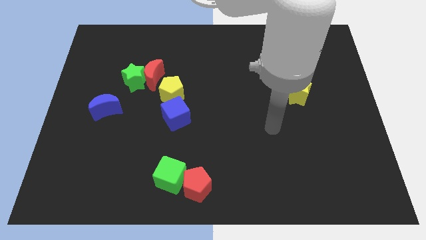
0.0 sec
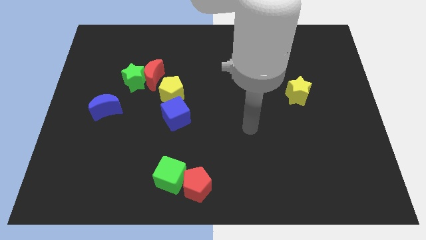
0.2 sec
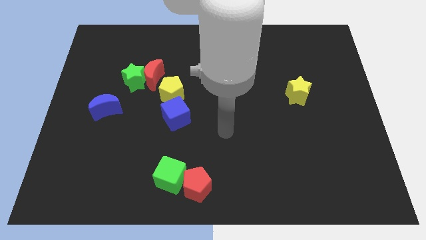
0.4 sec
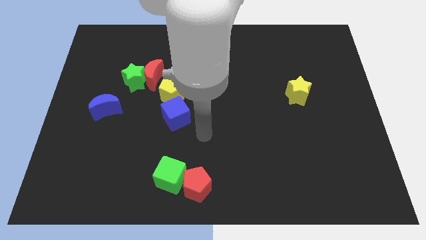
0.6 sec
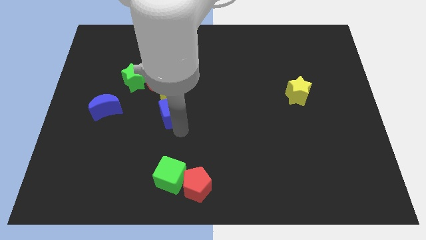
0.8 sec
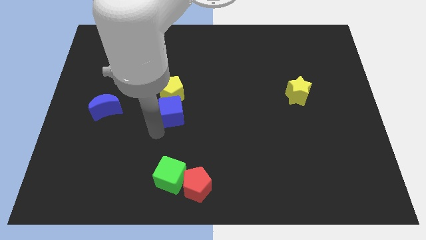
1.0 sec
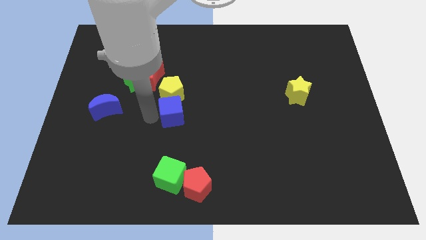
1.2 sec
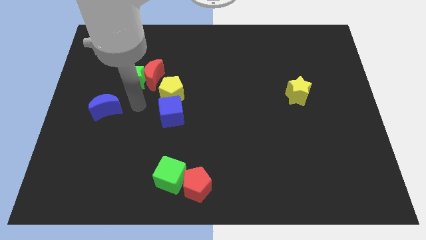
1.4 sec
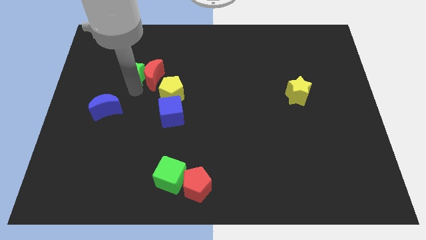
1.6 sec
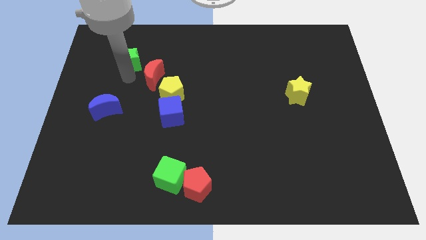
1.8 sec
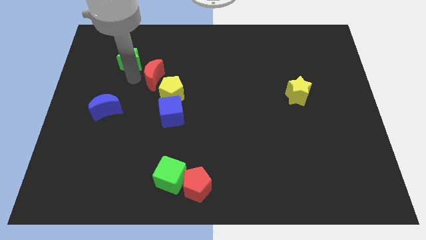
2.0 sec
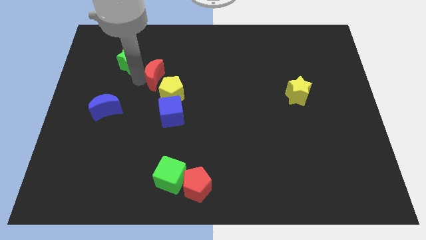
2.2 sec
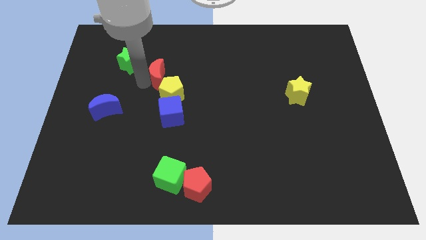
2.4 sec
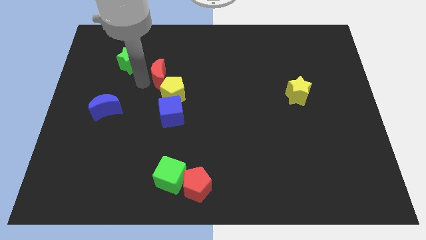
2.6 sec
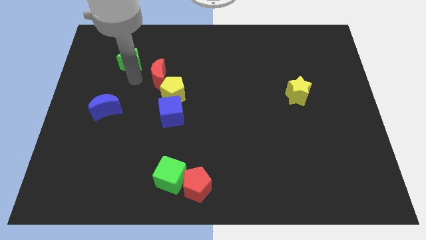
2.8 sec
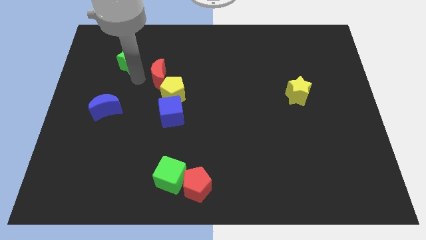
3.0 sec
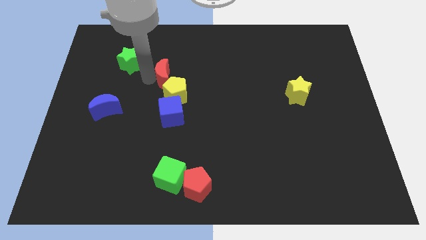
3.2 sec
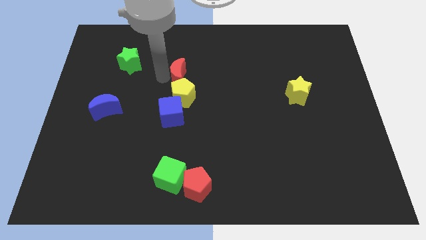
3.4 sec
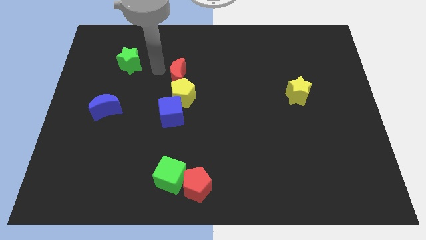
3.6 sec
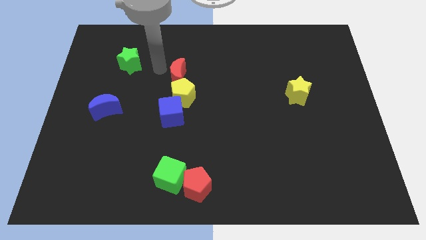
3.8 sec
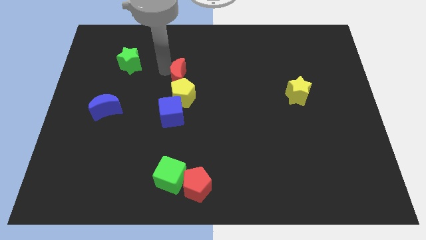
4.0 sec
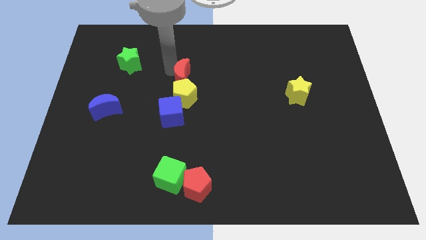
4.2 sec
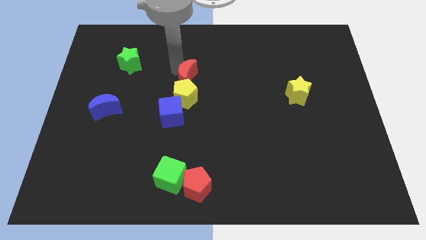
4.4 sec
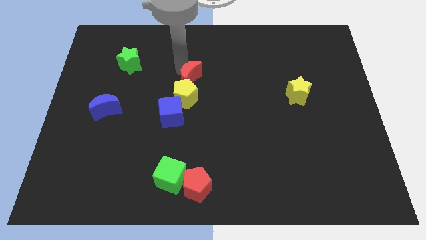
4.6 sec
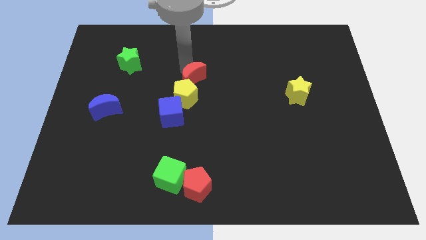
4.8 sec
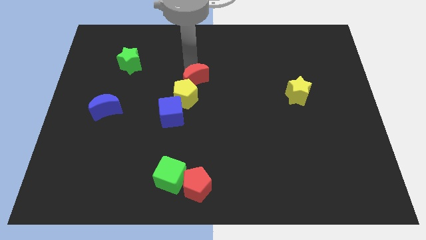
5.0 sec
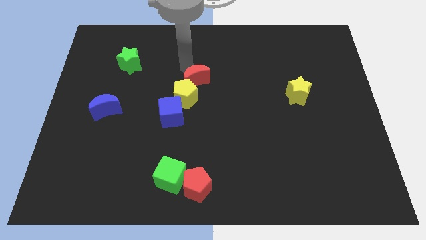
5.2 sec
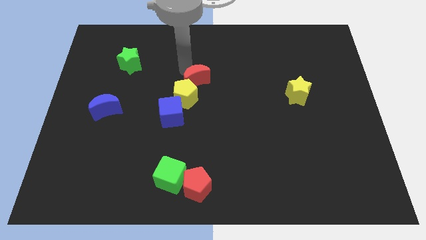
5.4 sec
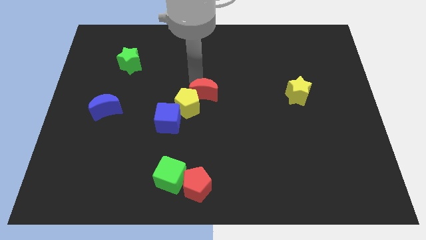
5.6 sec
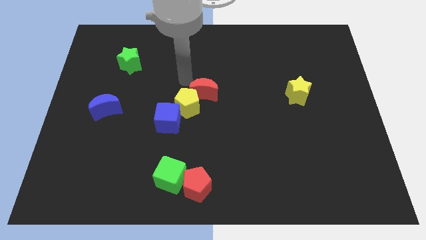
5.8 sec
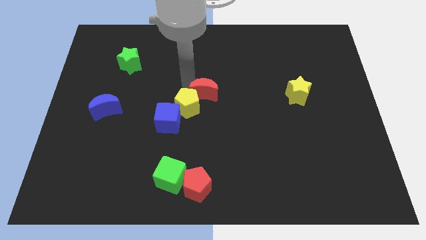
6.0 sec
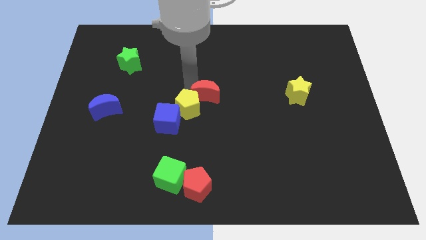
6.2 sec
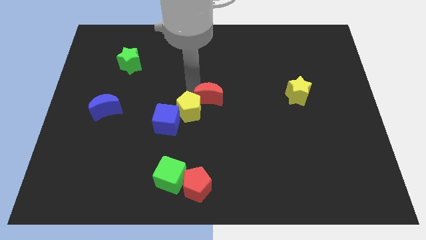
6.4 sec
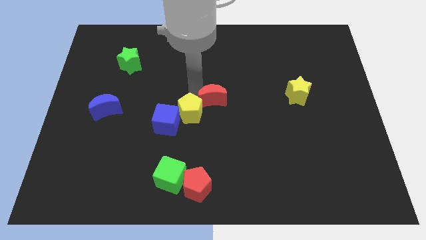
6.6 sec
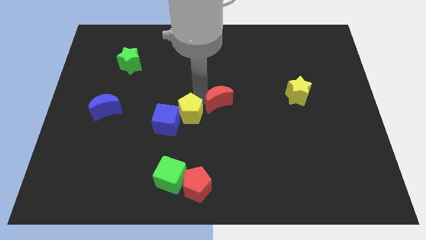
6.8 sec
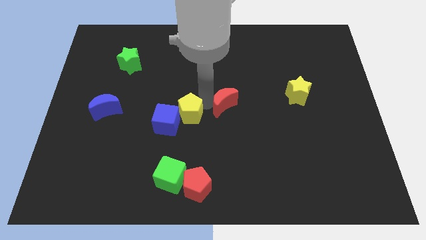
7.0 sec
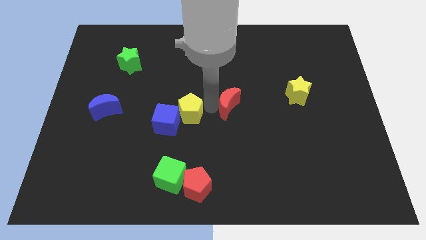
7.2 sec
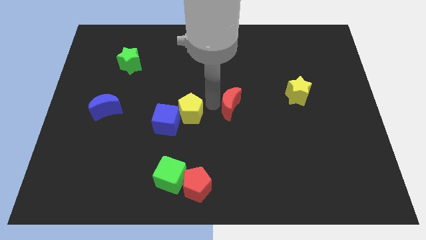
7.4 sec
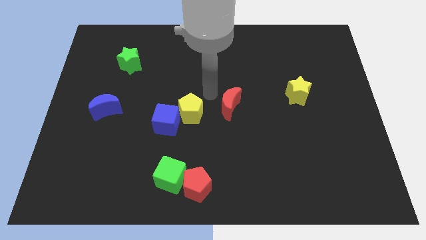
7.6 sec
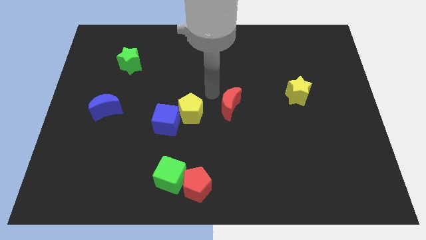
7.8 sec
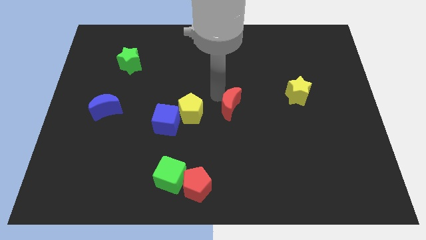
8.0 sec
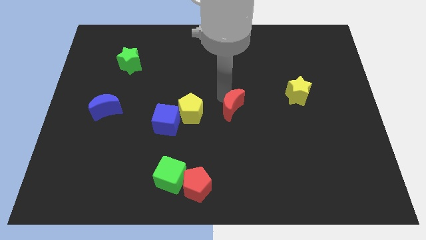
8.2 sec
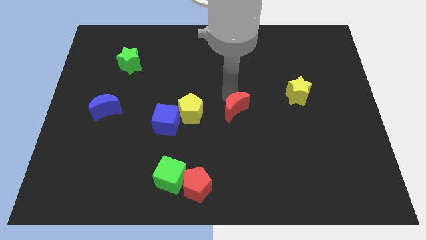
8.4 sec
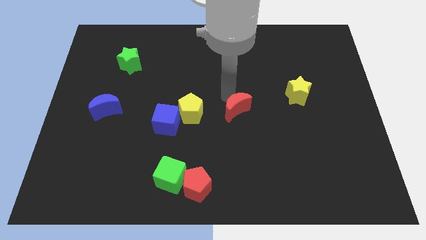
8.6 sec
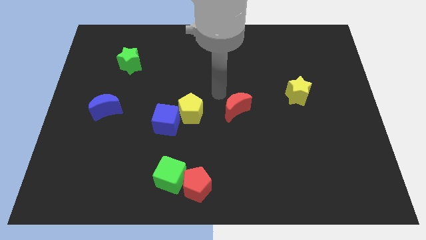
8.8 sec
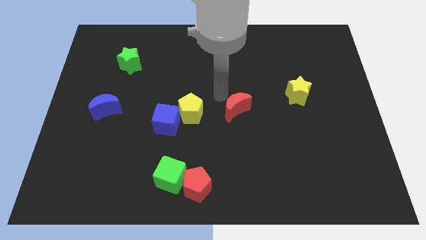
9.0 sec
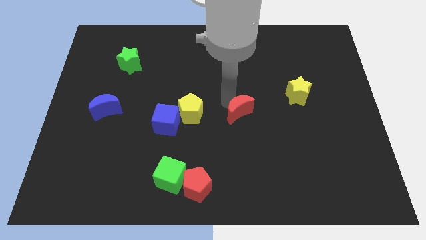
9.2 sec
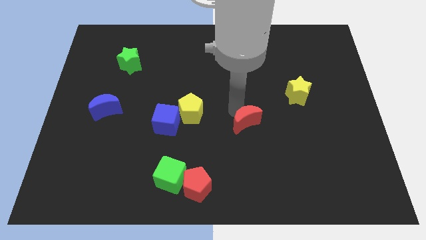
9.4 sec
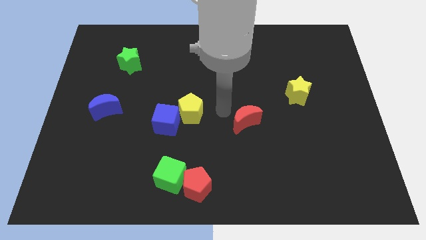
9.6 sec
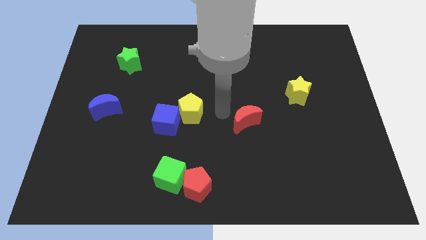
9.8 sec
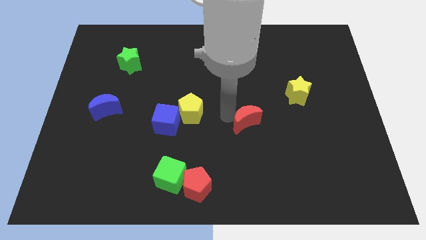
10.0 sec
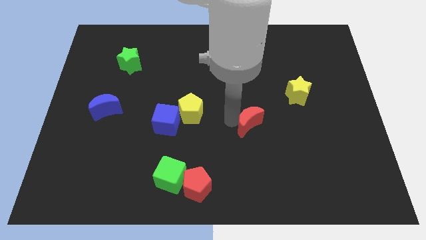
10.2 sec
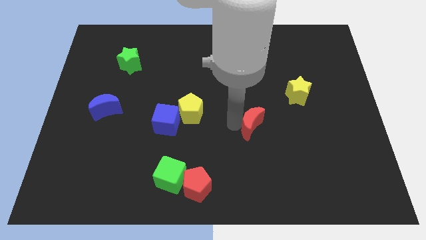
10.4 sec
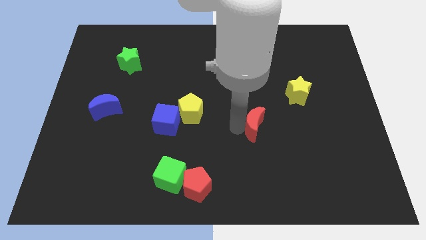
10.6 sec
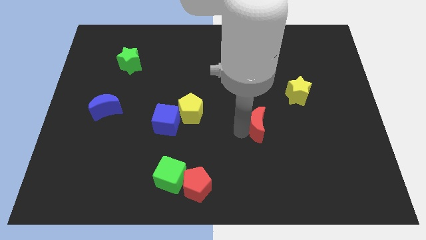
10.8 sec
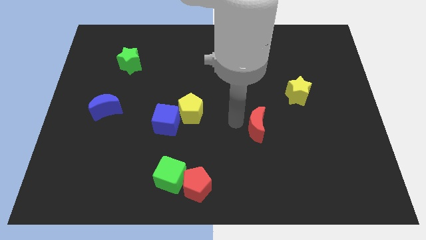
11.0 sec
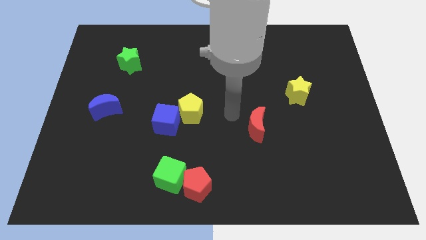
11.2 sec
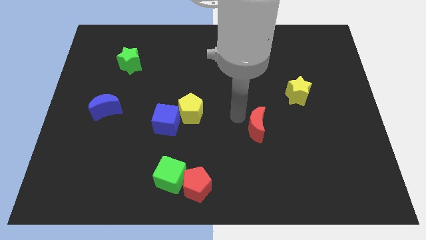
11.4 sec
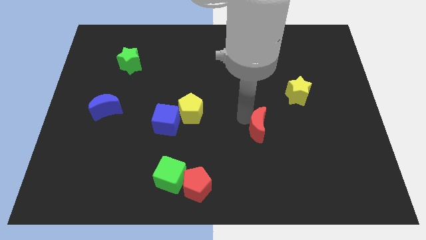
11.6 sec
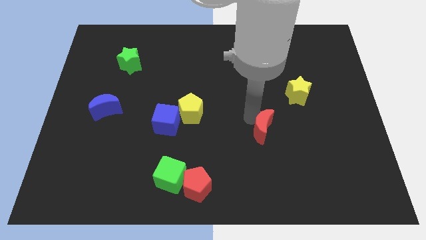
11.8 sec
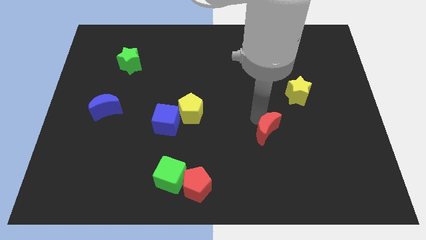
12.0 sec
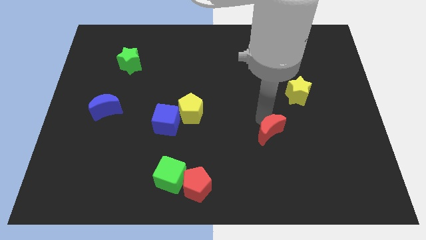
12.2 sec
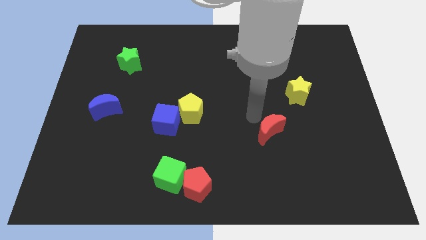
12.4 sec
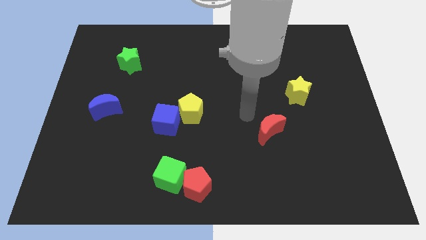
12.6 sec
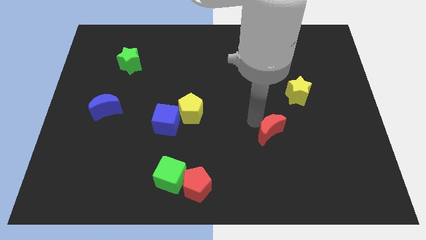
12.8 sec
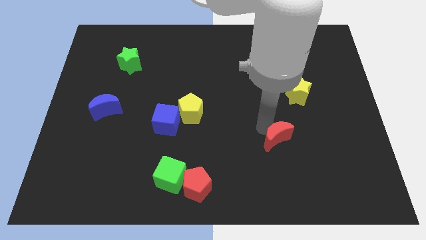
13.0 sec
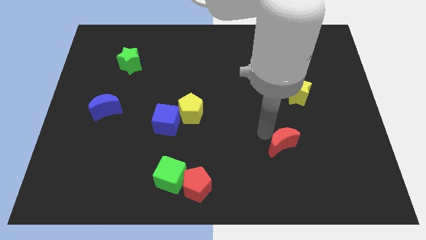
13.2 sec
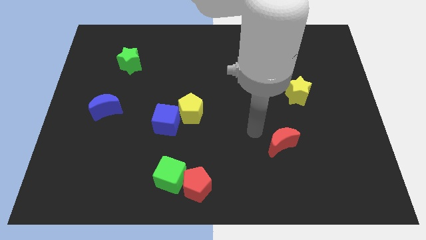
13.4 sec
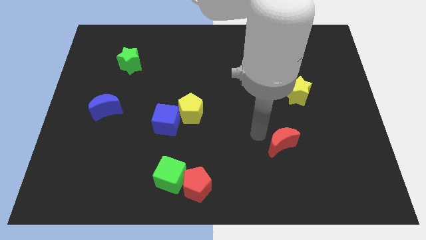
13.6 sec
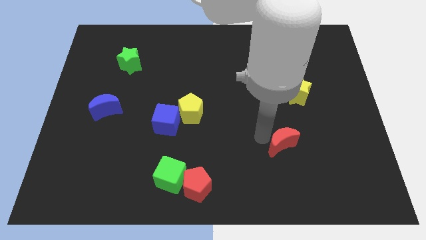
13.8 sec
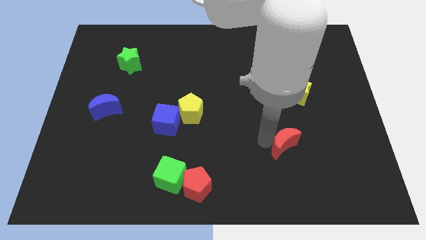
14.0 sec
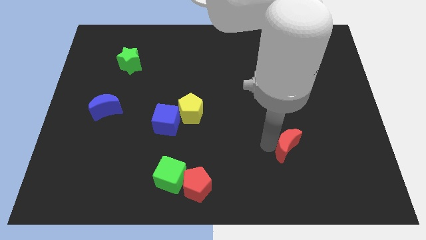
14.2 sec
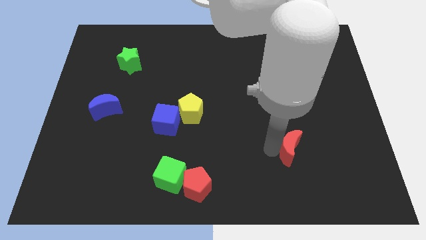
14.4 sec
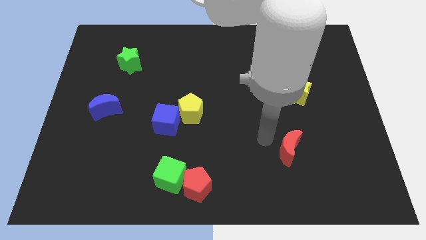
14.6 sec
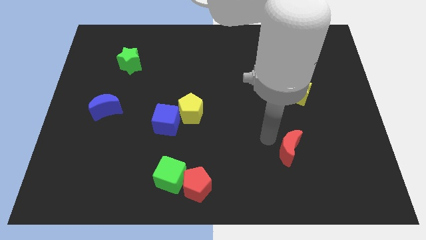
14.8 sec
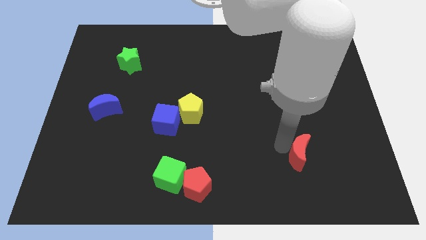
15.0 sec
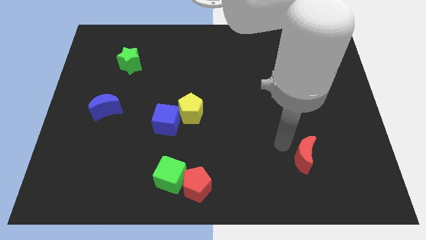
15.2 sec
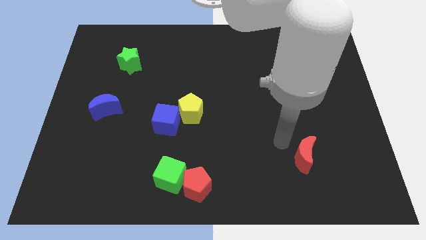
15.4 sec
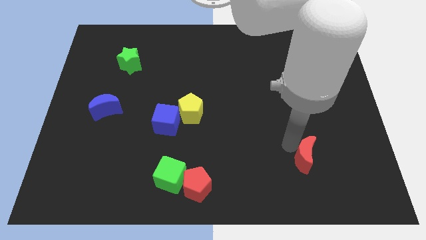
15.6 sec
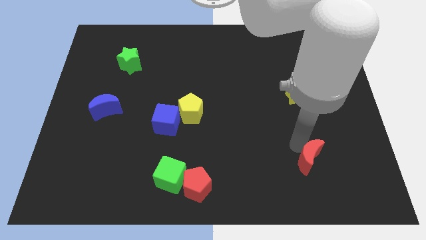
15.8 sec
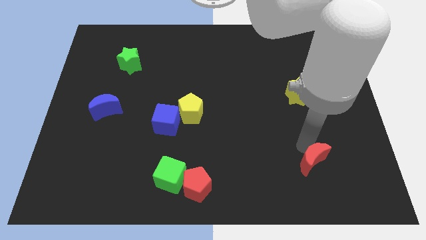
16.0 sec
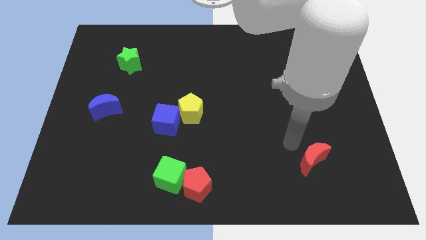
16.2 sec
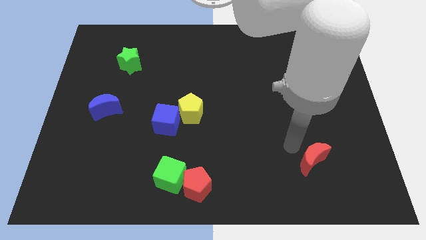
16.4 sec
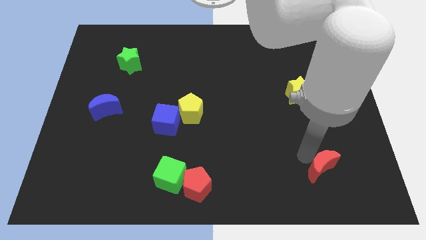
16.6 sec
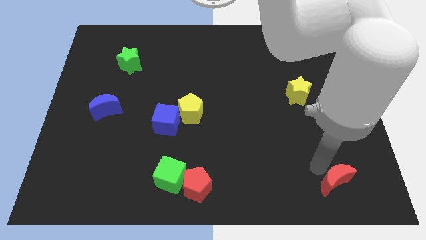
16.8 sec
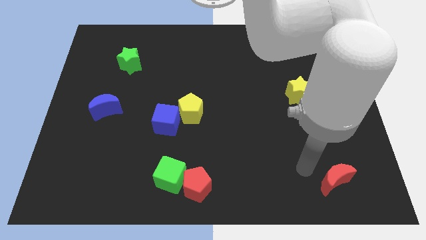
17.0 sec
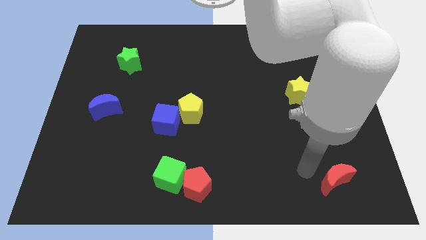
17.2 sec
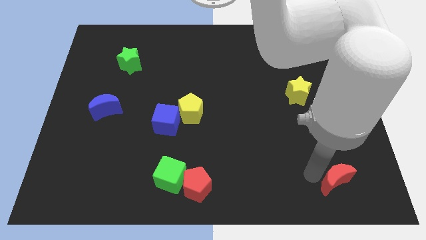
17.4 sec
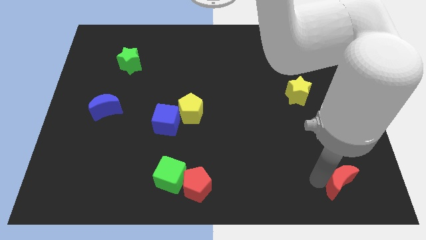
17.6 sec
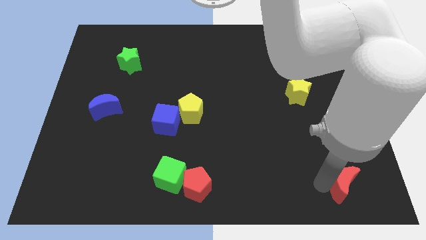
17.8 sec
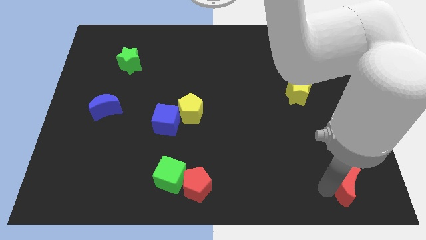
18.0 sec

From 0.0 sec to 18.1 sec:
put the red moon to the bottom right
